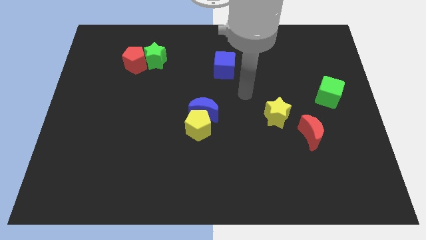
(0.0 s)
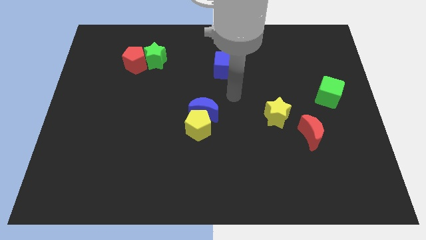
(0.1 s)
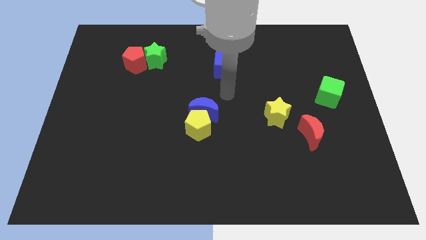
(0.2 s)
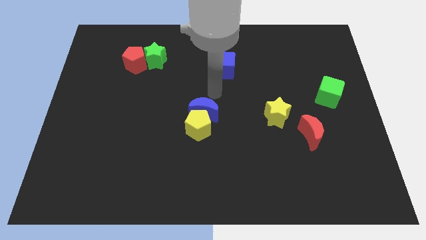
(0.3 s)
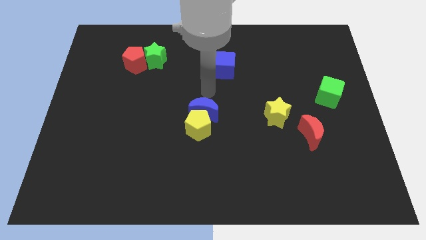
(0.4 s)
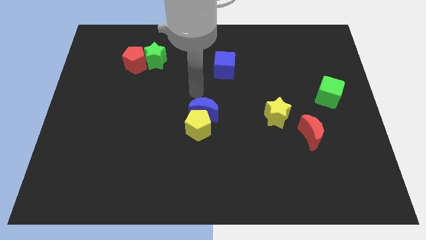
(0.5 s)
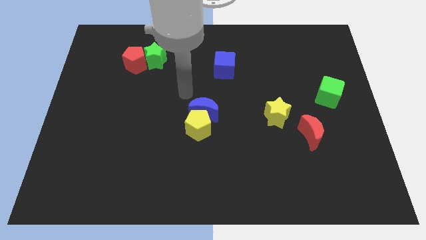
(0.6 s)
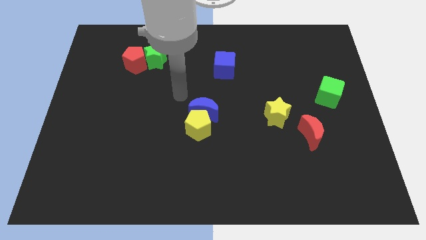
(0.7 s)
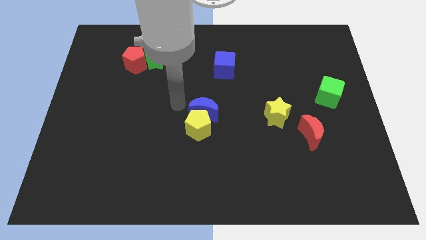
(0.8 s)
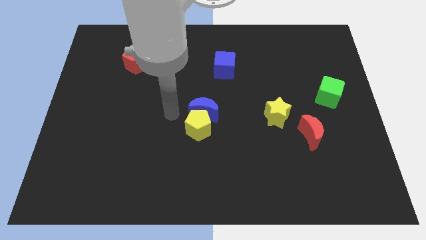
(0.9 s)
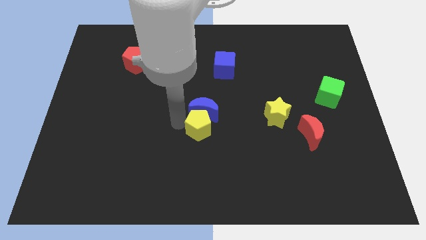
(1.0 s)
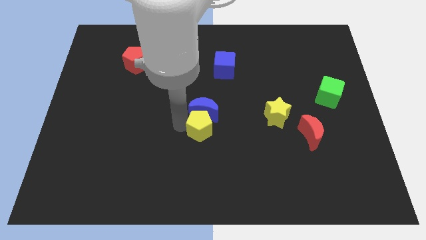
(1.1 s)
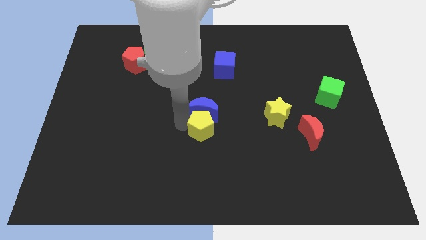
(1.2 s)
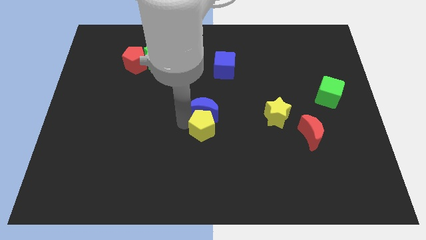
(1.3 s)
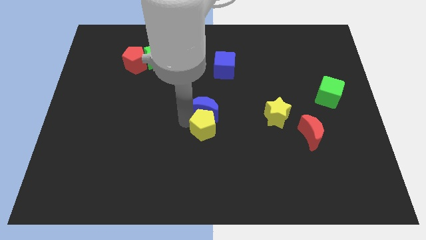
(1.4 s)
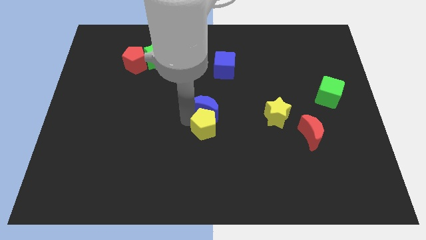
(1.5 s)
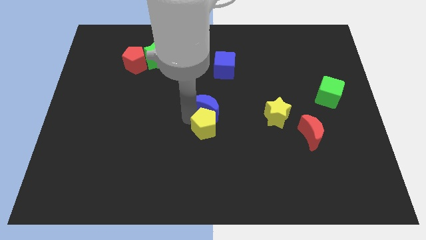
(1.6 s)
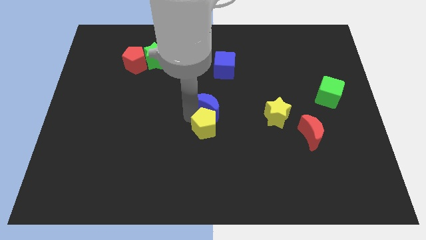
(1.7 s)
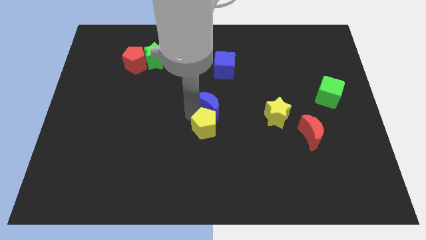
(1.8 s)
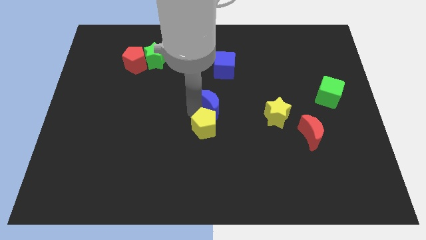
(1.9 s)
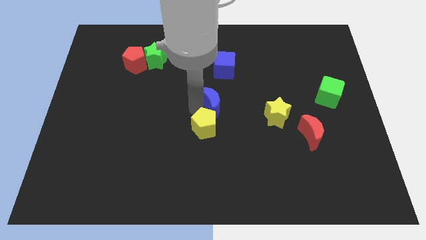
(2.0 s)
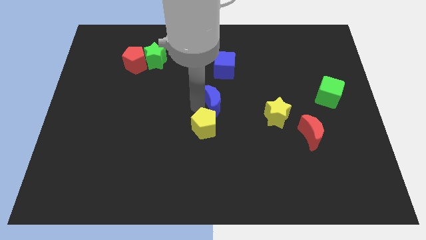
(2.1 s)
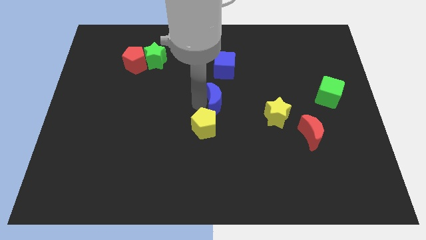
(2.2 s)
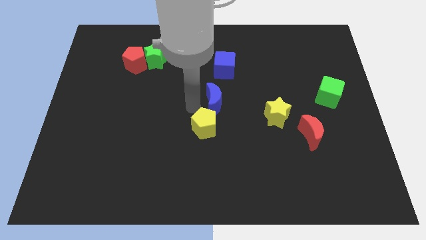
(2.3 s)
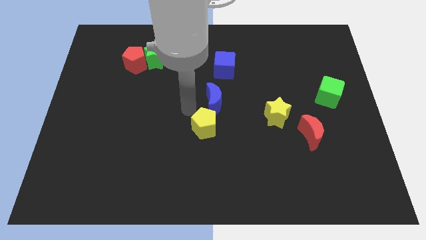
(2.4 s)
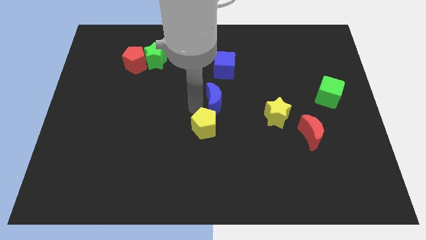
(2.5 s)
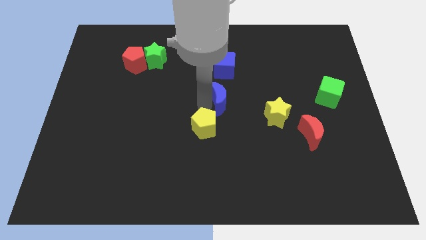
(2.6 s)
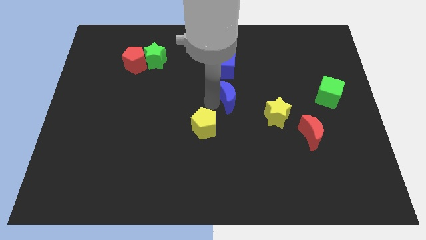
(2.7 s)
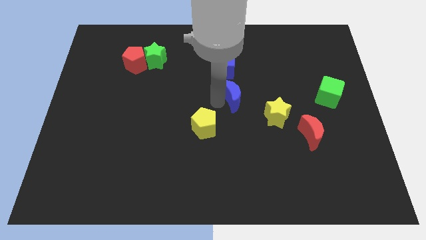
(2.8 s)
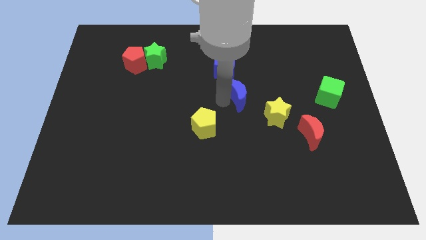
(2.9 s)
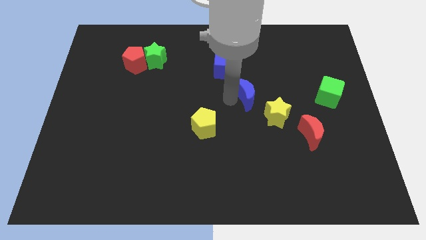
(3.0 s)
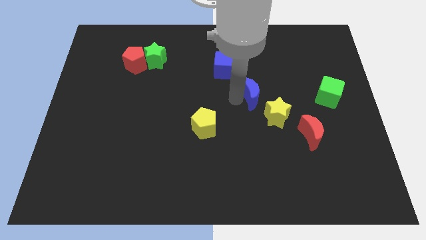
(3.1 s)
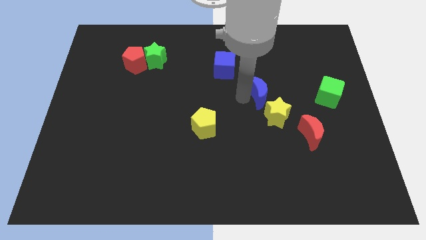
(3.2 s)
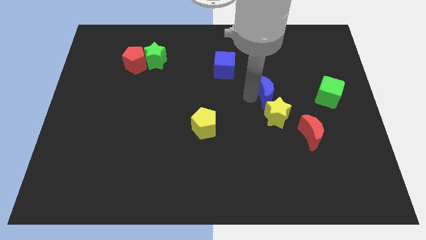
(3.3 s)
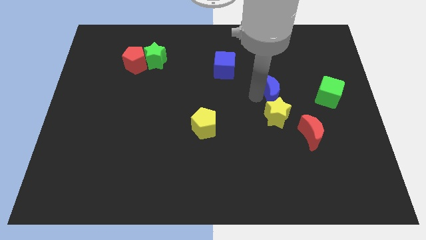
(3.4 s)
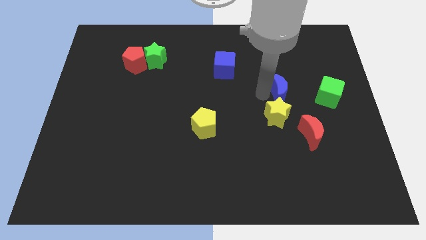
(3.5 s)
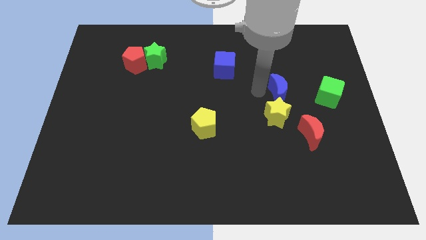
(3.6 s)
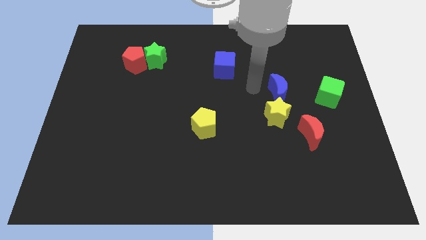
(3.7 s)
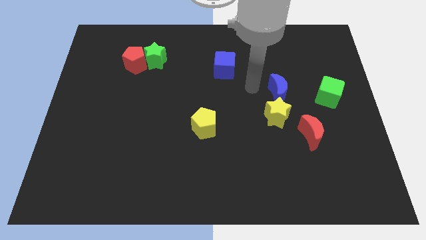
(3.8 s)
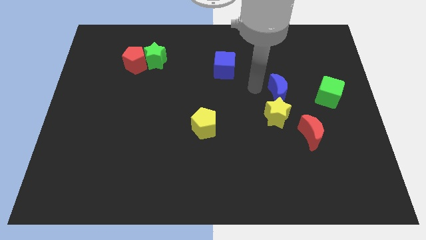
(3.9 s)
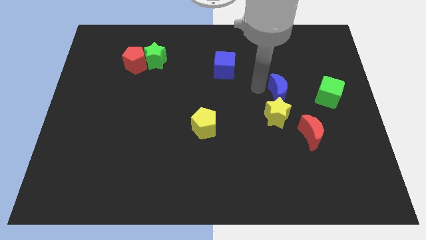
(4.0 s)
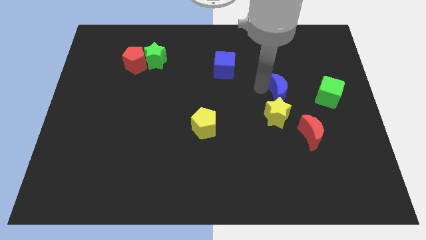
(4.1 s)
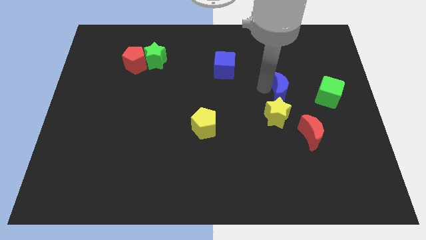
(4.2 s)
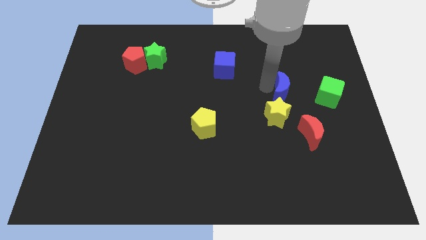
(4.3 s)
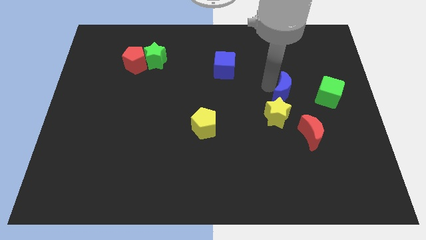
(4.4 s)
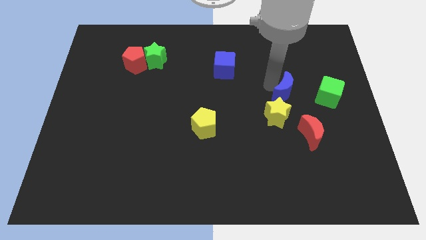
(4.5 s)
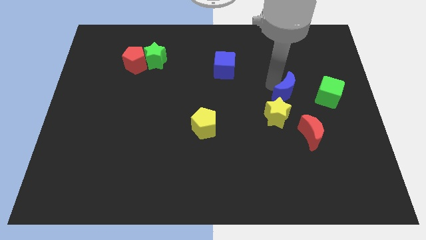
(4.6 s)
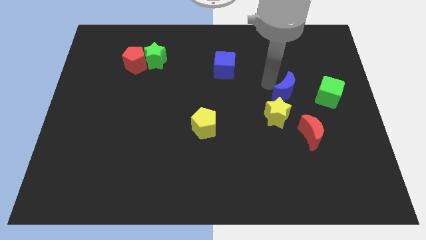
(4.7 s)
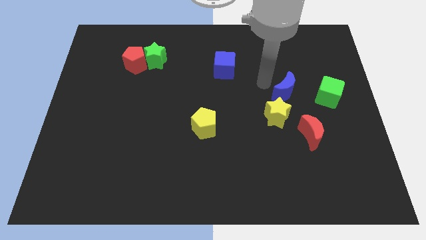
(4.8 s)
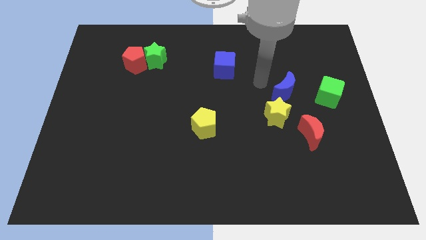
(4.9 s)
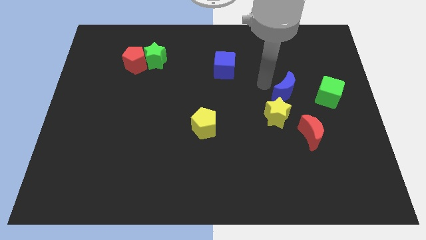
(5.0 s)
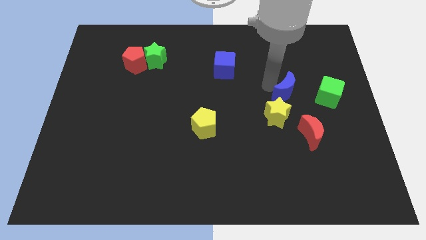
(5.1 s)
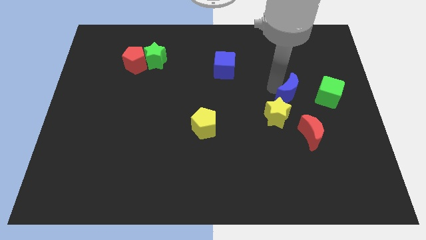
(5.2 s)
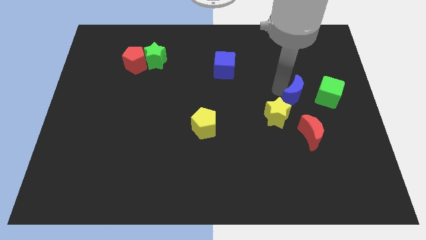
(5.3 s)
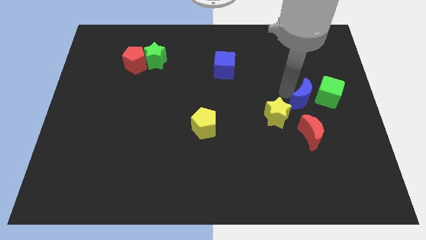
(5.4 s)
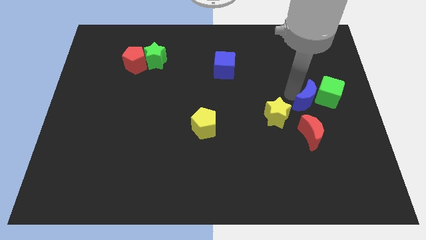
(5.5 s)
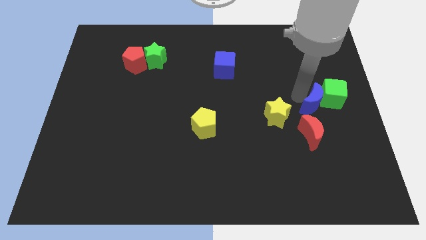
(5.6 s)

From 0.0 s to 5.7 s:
push the blue moon to the top right of the red moon

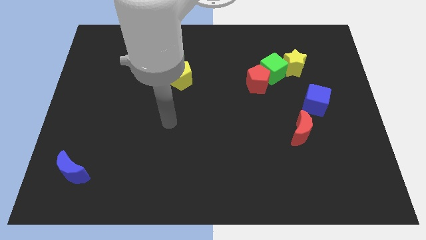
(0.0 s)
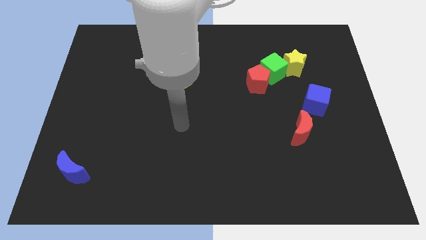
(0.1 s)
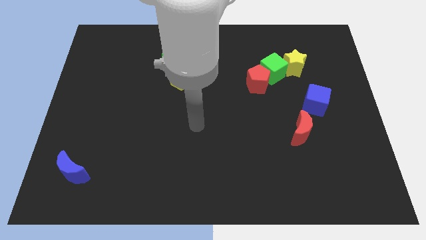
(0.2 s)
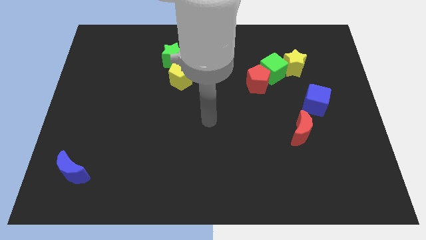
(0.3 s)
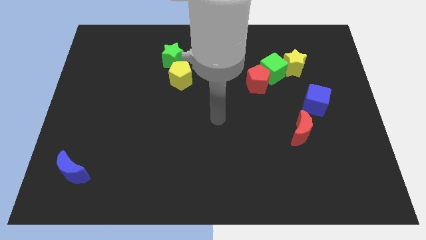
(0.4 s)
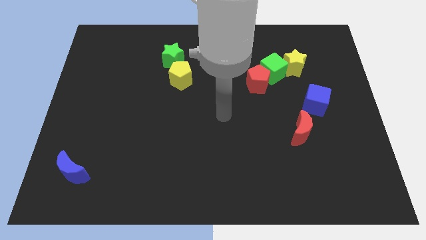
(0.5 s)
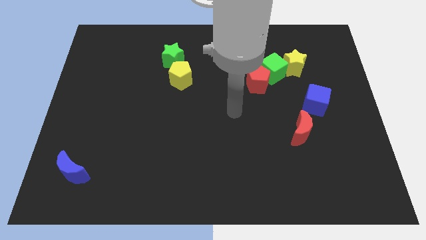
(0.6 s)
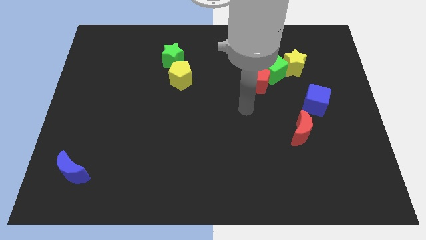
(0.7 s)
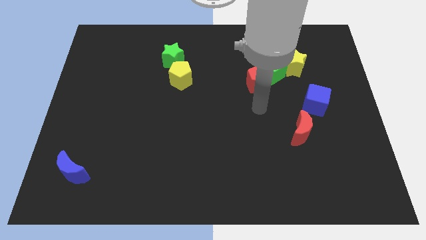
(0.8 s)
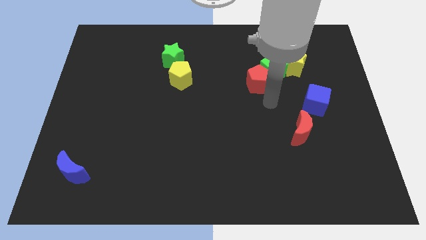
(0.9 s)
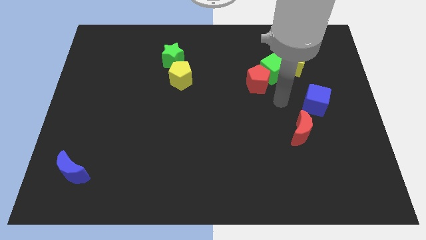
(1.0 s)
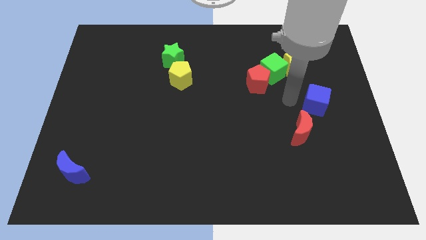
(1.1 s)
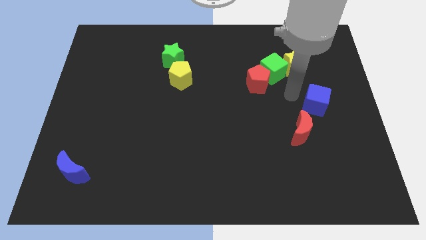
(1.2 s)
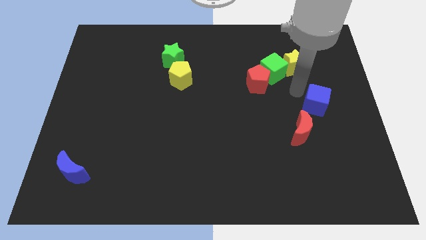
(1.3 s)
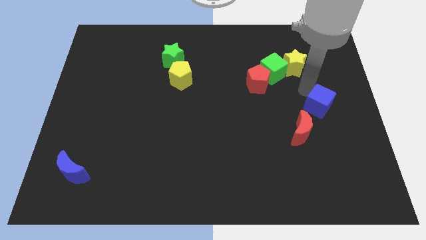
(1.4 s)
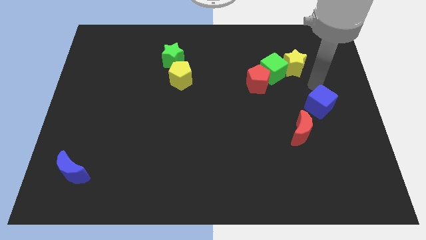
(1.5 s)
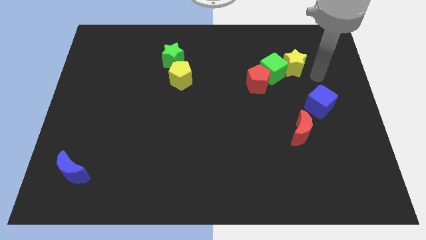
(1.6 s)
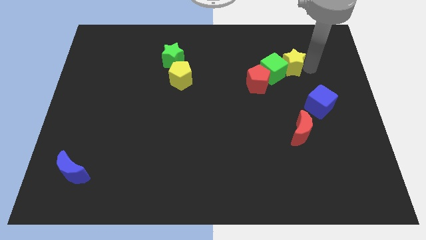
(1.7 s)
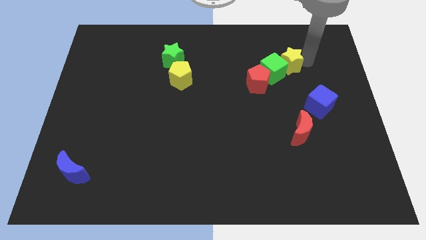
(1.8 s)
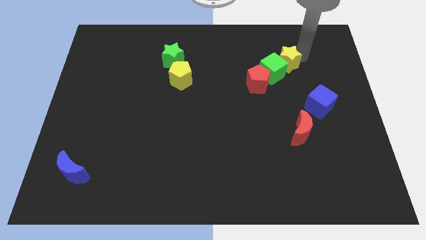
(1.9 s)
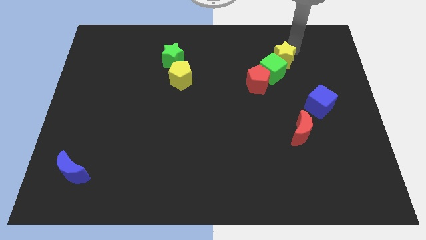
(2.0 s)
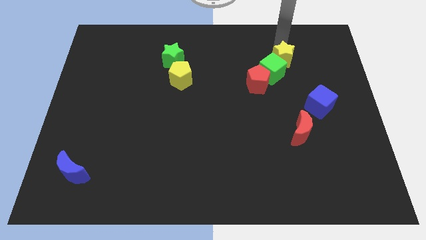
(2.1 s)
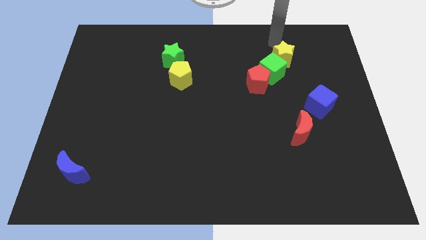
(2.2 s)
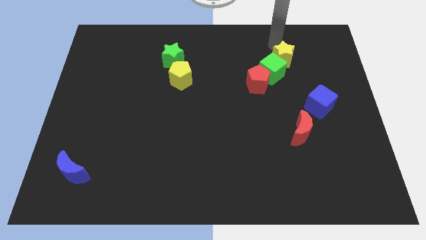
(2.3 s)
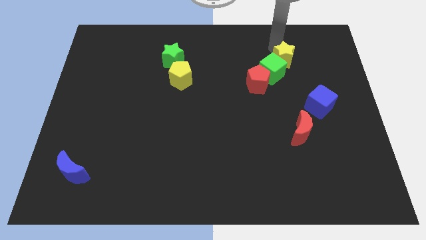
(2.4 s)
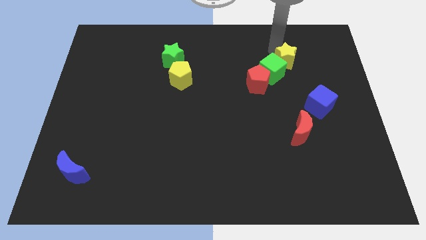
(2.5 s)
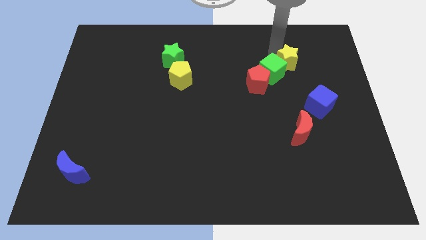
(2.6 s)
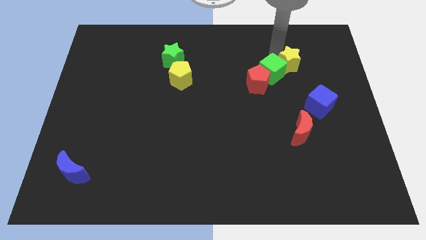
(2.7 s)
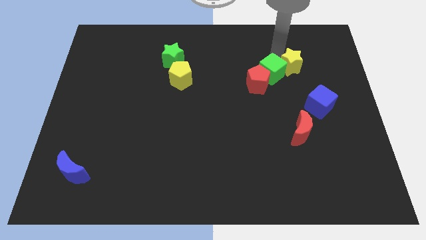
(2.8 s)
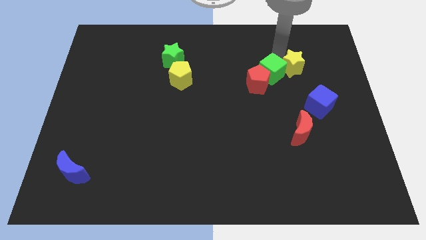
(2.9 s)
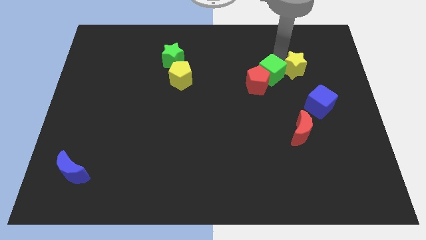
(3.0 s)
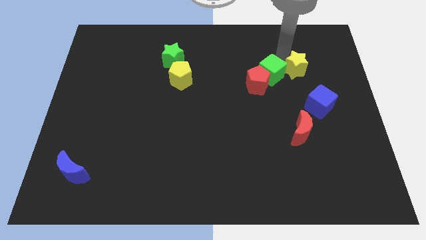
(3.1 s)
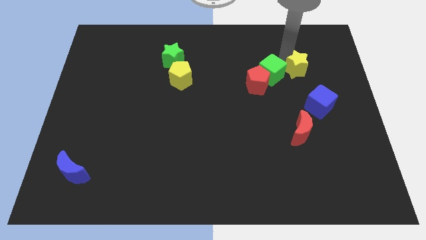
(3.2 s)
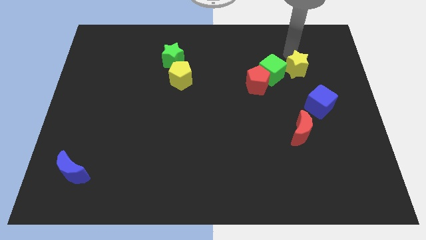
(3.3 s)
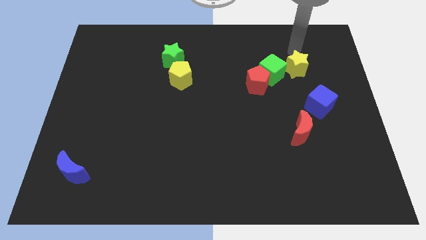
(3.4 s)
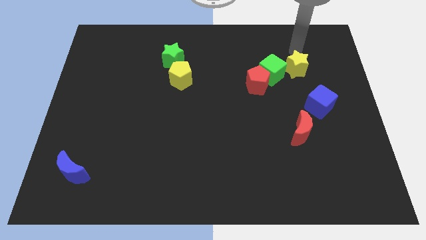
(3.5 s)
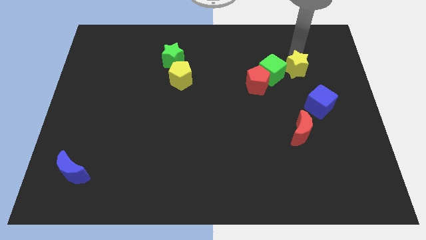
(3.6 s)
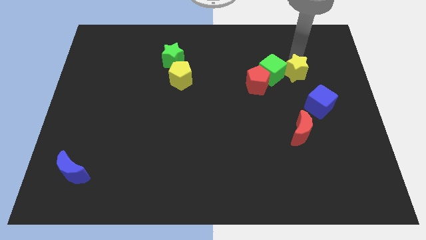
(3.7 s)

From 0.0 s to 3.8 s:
put the yellow star to the bottom right side of the green cube
